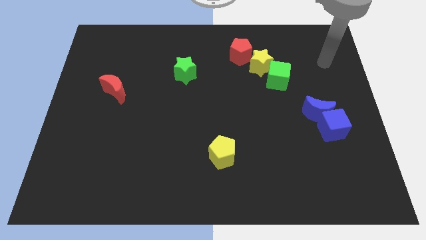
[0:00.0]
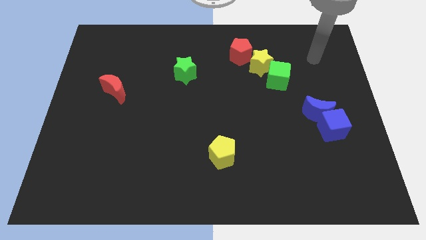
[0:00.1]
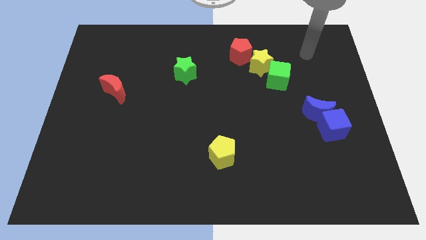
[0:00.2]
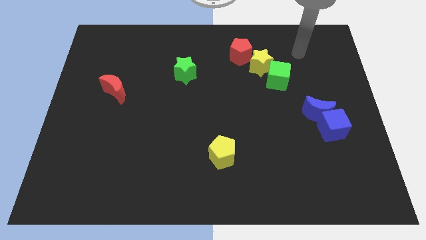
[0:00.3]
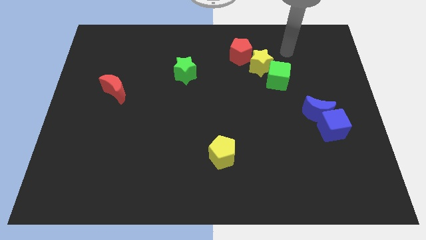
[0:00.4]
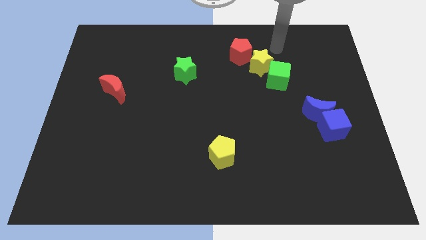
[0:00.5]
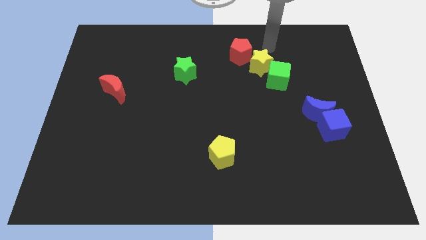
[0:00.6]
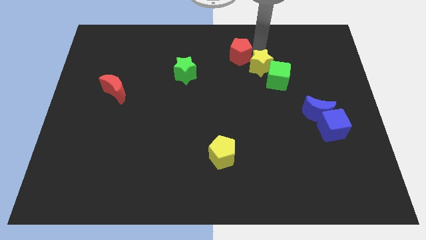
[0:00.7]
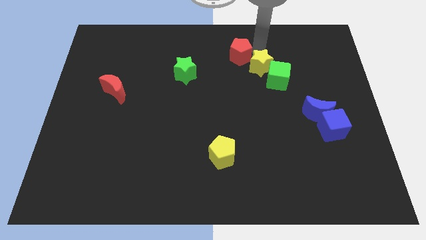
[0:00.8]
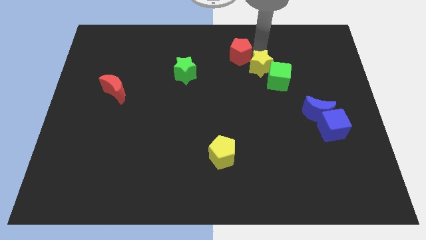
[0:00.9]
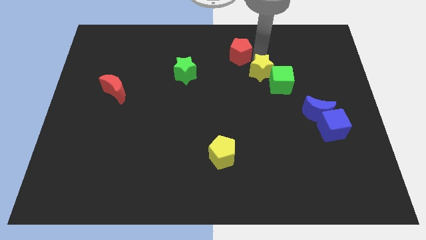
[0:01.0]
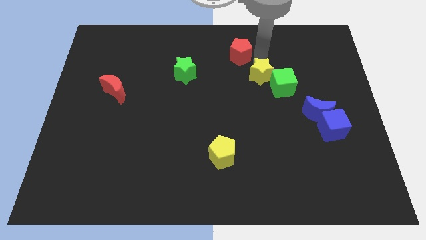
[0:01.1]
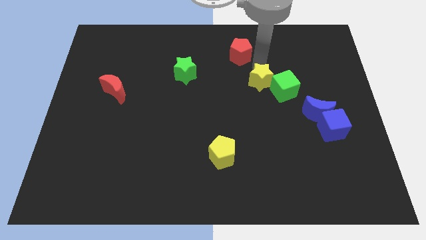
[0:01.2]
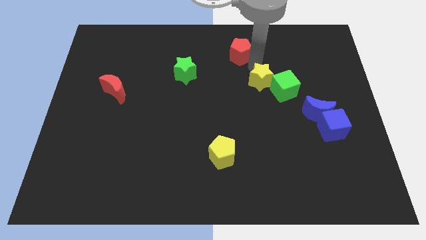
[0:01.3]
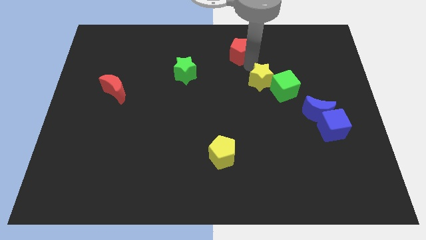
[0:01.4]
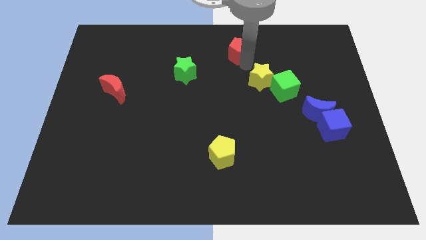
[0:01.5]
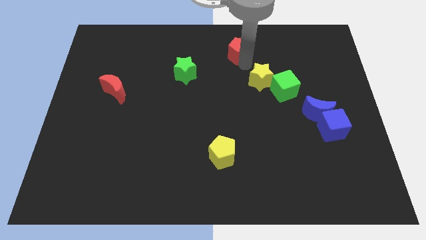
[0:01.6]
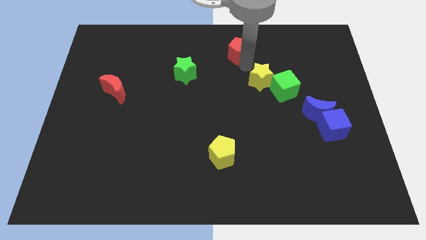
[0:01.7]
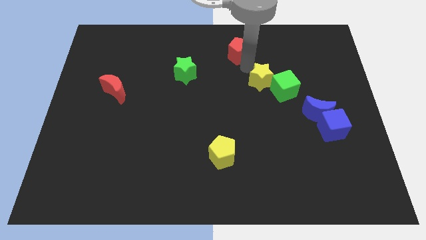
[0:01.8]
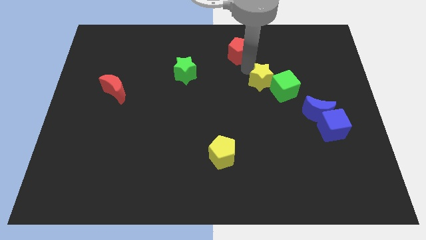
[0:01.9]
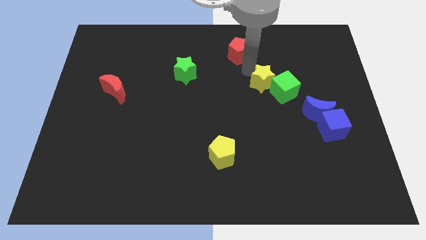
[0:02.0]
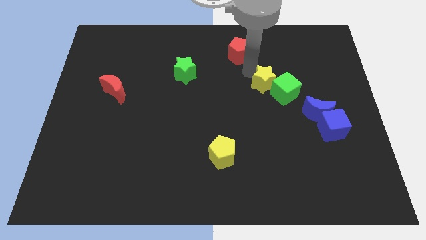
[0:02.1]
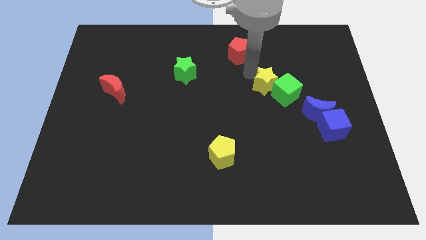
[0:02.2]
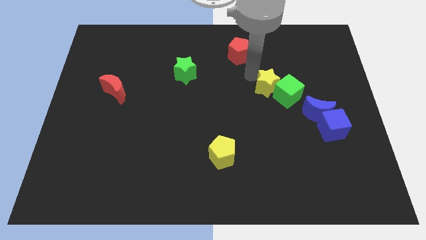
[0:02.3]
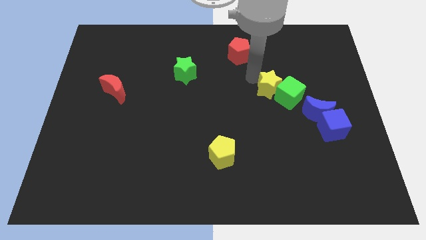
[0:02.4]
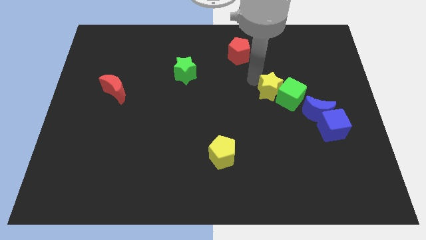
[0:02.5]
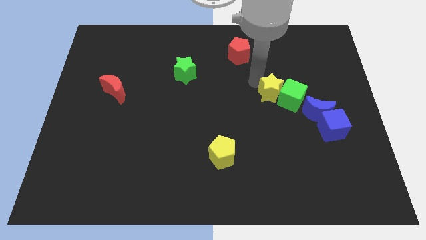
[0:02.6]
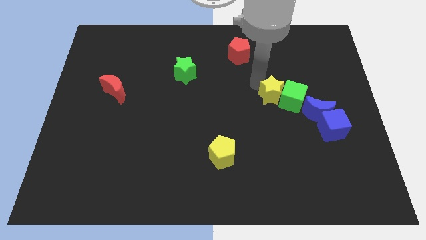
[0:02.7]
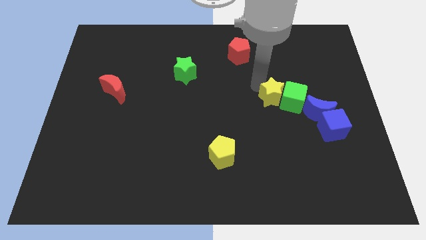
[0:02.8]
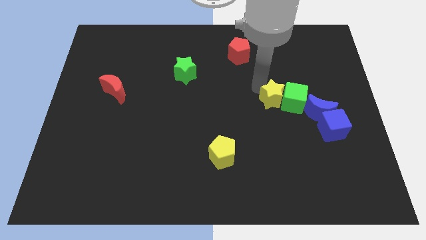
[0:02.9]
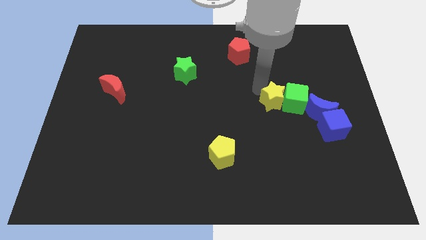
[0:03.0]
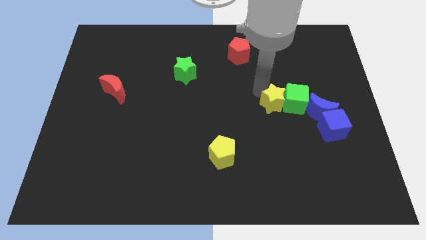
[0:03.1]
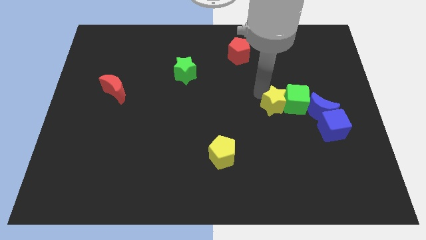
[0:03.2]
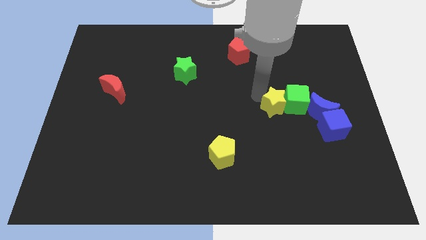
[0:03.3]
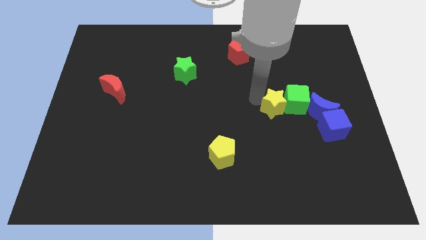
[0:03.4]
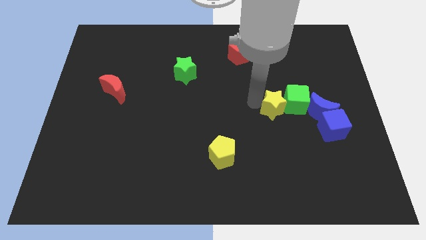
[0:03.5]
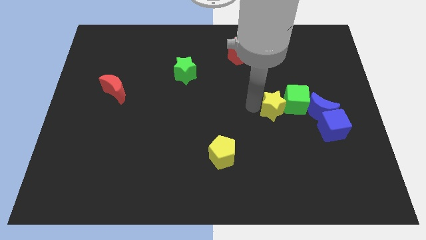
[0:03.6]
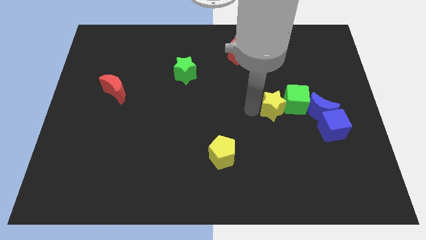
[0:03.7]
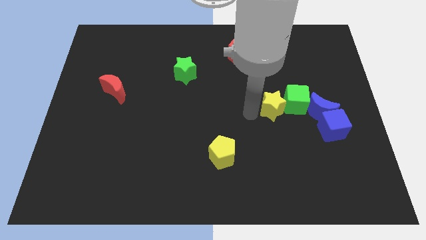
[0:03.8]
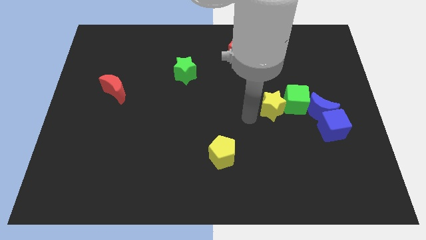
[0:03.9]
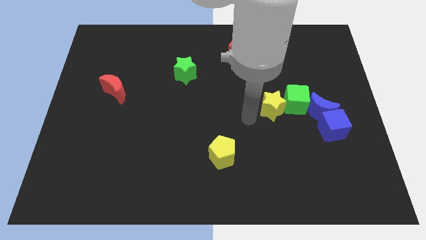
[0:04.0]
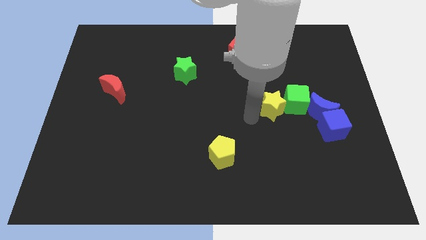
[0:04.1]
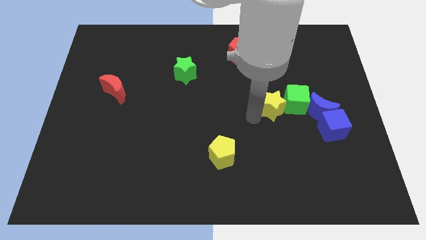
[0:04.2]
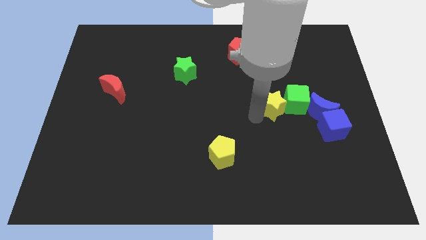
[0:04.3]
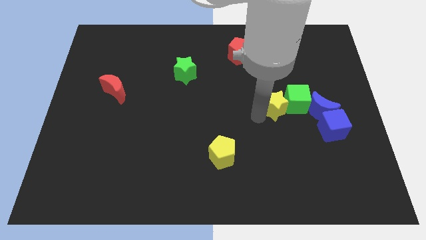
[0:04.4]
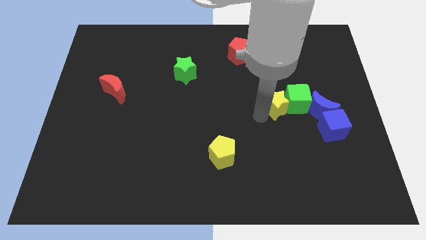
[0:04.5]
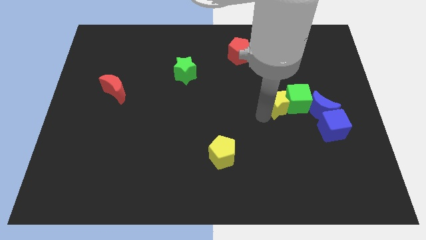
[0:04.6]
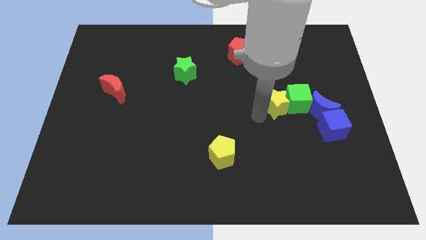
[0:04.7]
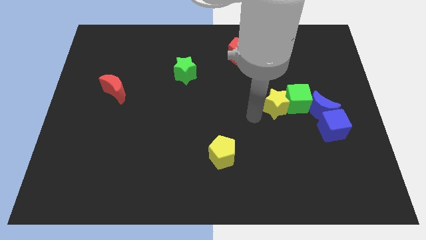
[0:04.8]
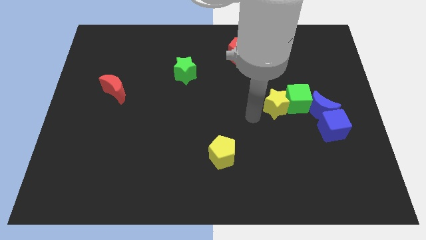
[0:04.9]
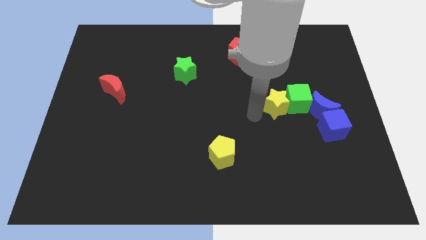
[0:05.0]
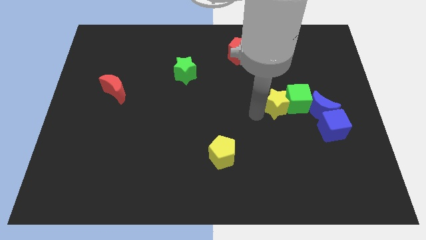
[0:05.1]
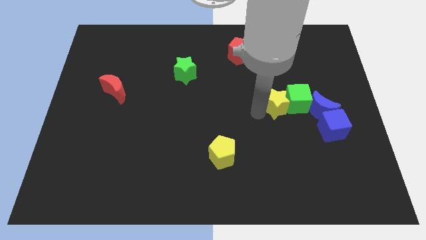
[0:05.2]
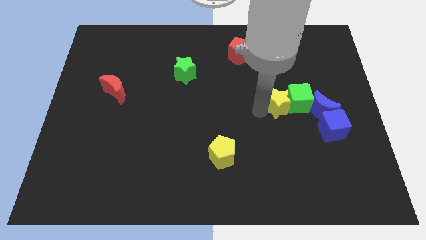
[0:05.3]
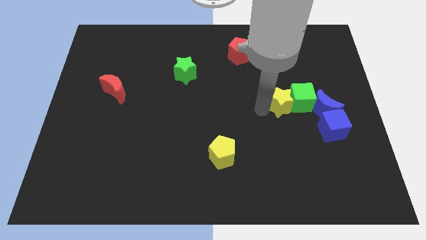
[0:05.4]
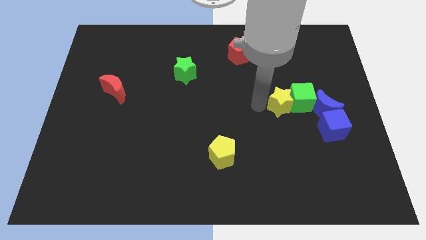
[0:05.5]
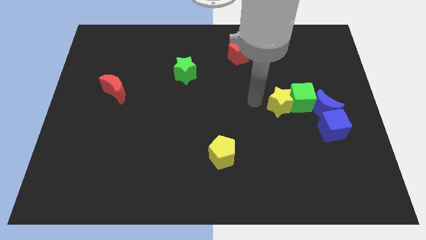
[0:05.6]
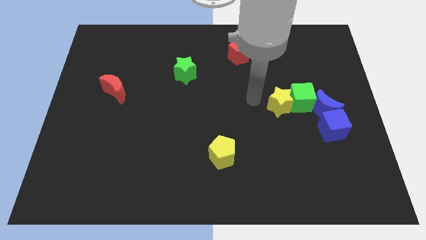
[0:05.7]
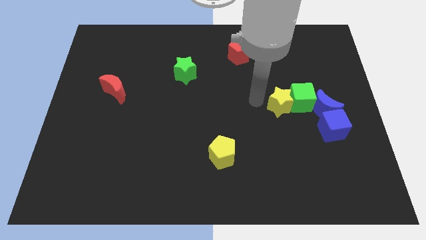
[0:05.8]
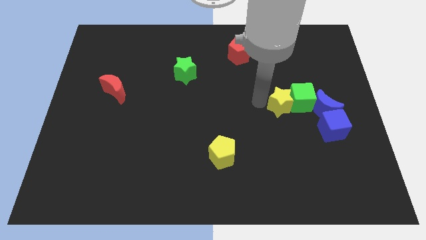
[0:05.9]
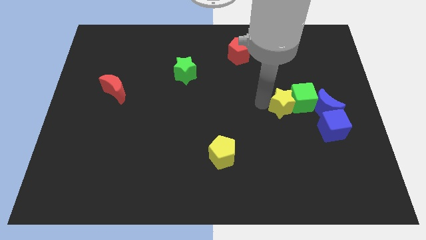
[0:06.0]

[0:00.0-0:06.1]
move the yellow star to the top left of the blue cube

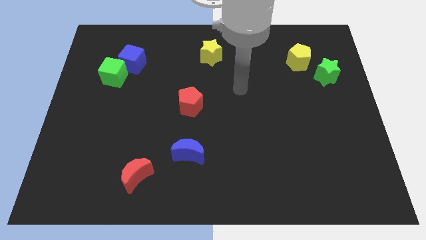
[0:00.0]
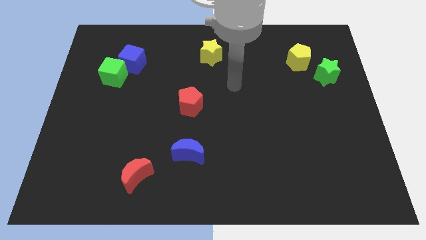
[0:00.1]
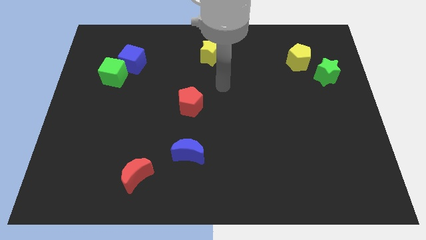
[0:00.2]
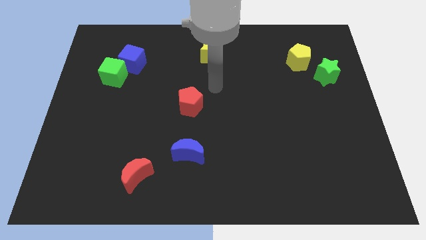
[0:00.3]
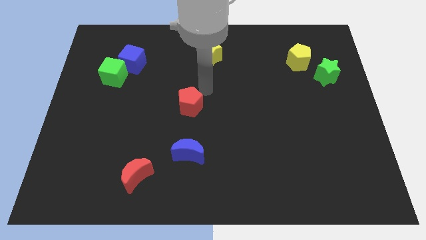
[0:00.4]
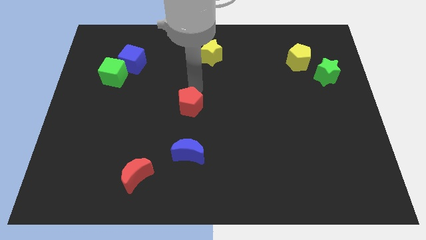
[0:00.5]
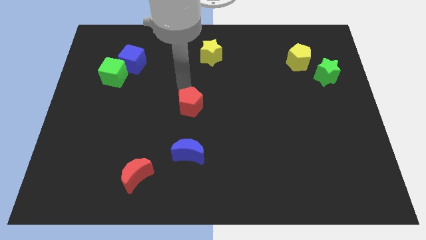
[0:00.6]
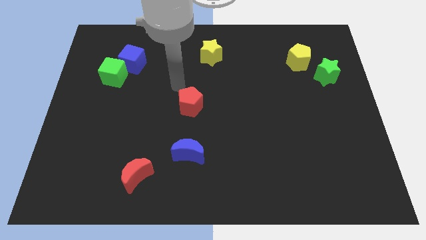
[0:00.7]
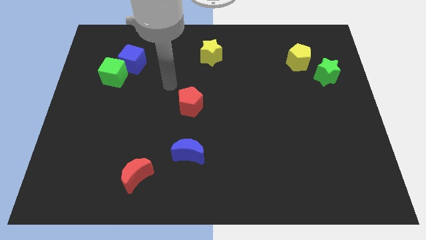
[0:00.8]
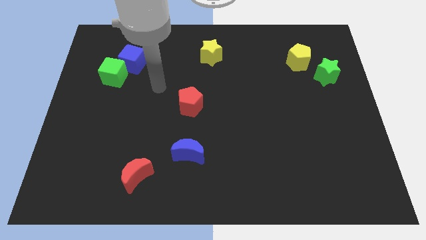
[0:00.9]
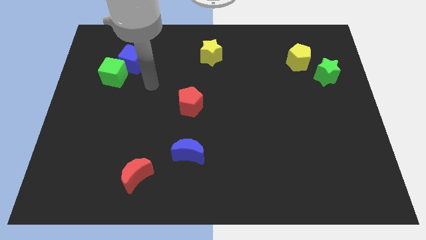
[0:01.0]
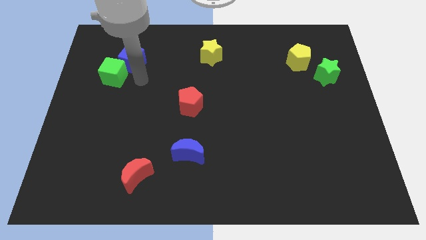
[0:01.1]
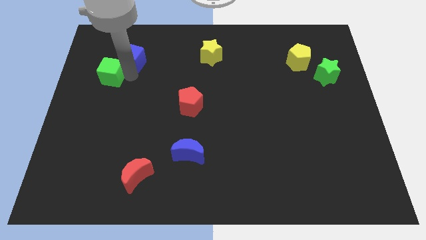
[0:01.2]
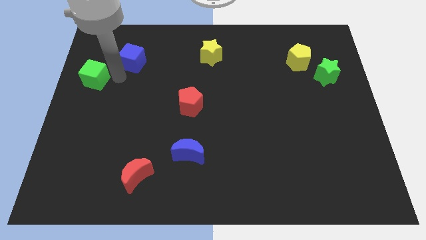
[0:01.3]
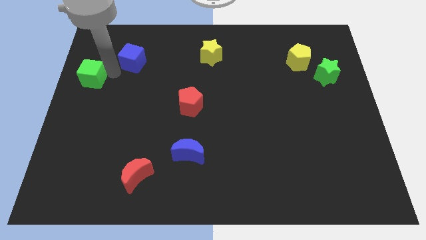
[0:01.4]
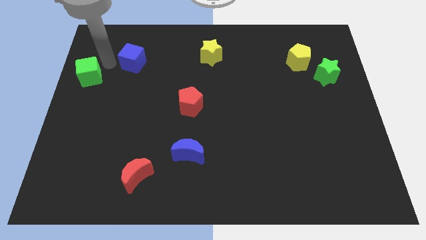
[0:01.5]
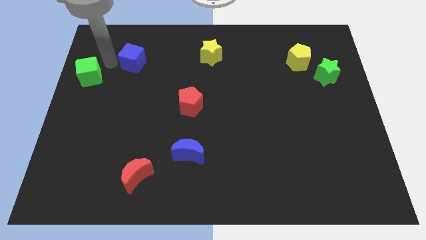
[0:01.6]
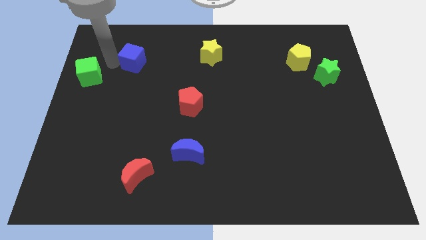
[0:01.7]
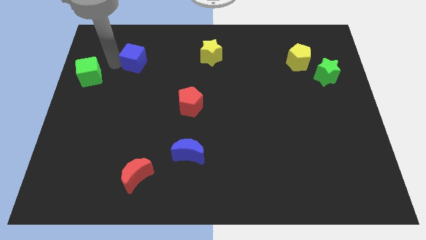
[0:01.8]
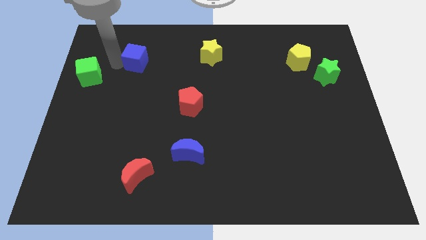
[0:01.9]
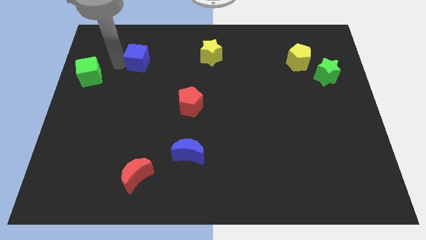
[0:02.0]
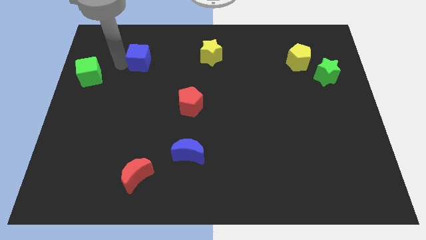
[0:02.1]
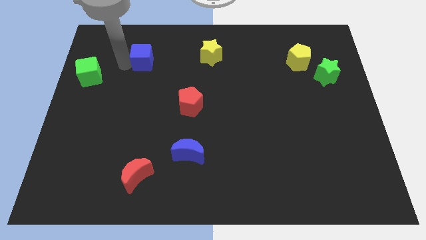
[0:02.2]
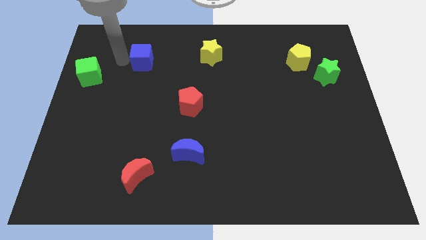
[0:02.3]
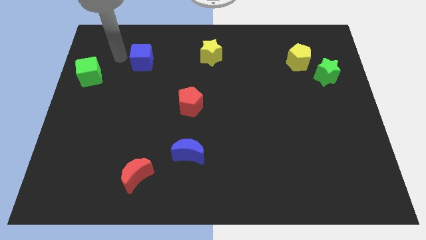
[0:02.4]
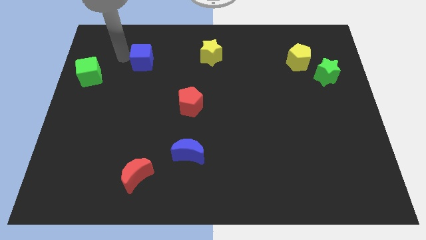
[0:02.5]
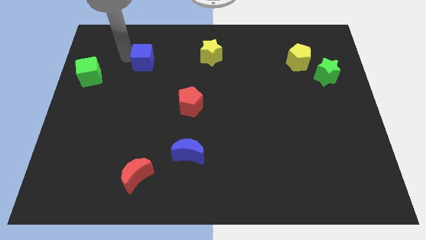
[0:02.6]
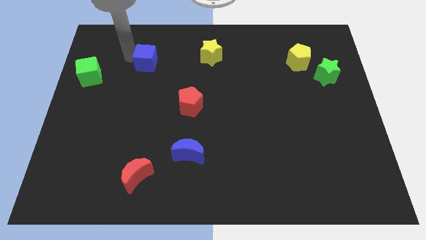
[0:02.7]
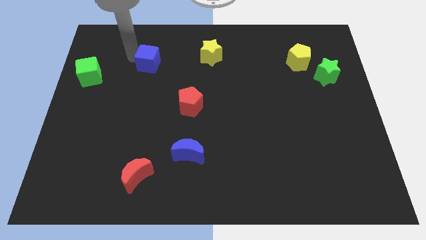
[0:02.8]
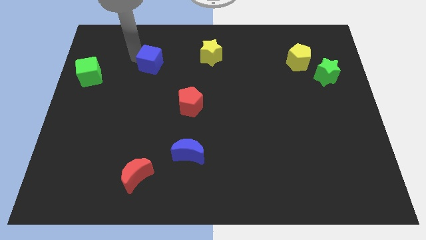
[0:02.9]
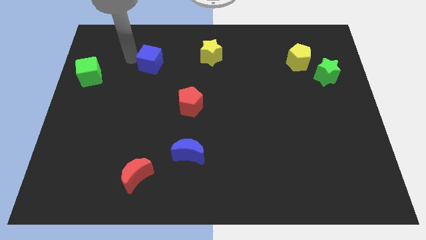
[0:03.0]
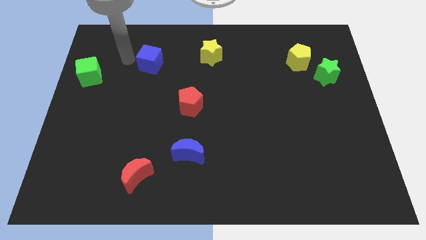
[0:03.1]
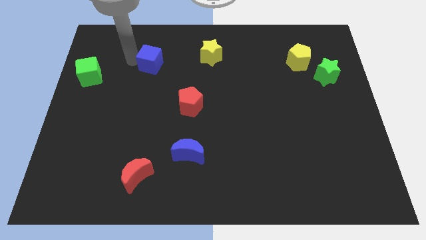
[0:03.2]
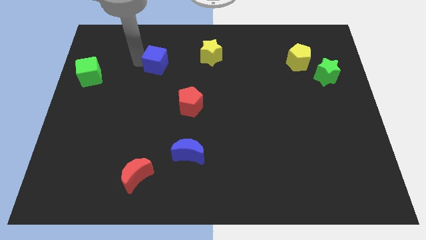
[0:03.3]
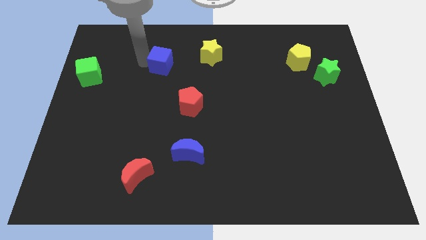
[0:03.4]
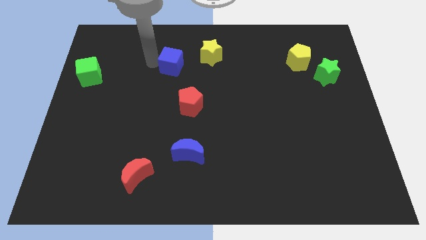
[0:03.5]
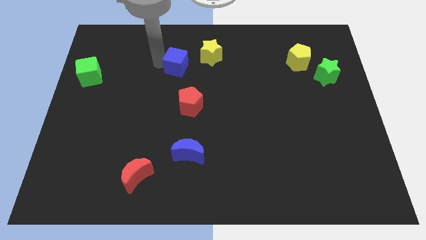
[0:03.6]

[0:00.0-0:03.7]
move the blue cube to the top of the red pentagon
